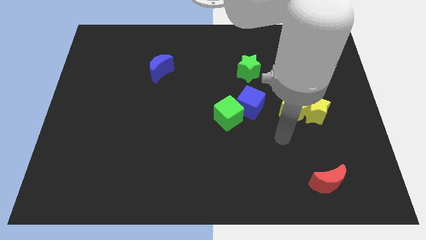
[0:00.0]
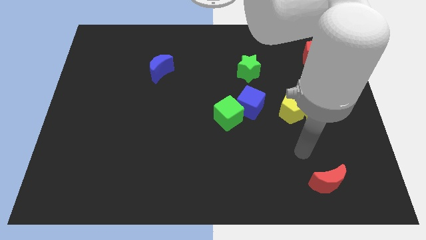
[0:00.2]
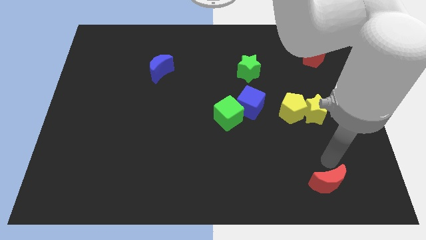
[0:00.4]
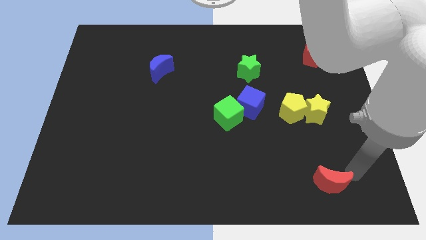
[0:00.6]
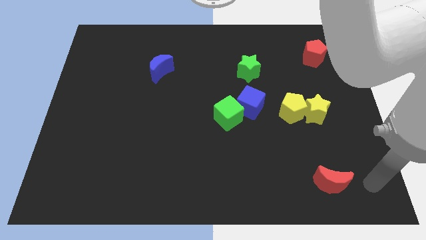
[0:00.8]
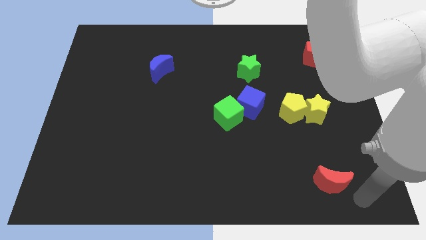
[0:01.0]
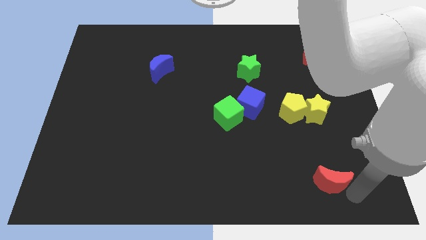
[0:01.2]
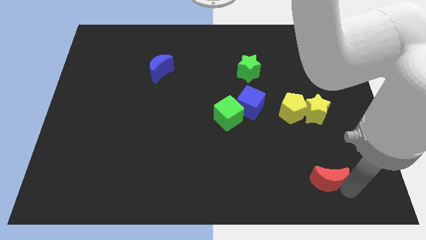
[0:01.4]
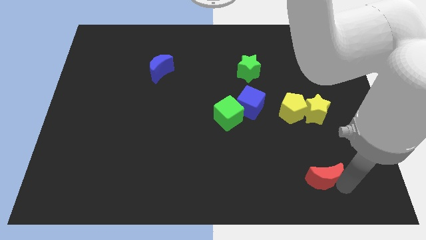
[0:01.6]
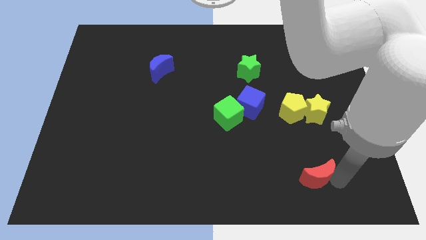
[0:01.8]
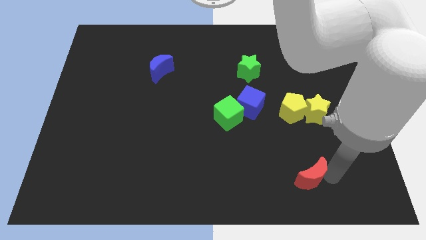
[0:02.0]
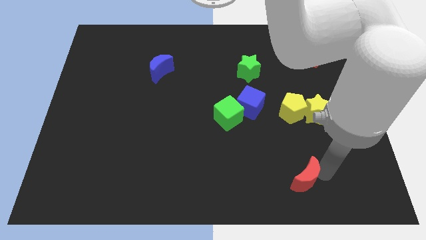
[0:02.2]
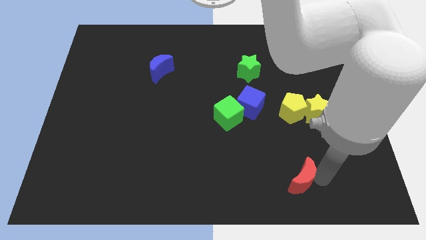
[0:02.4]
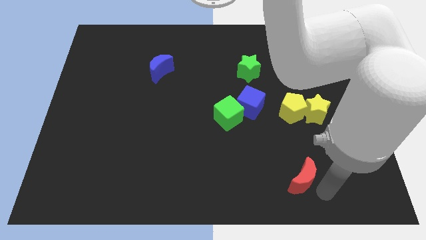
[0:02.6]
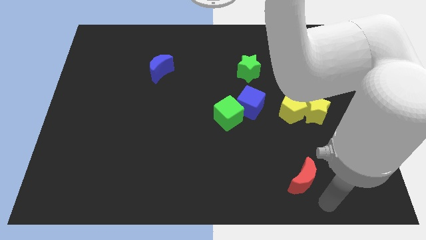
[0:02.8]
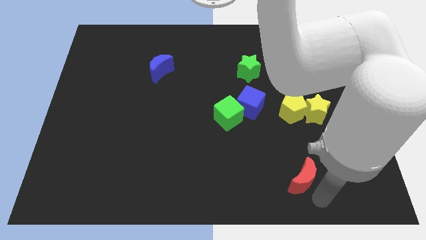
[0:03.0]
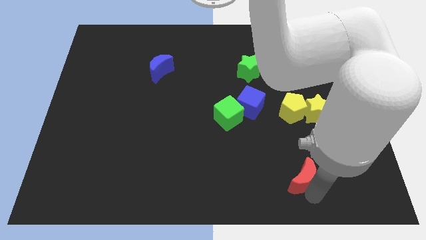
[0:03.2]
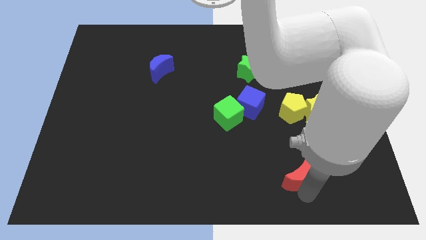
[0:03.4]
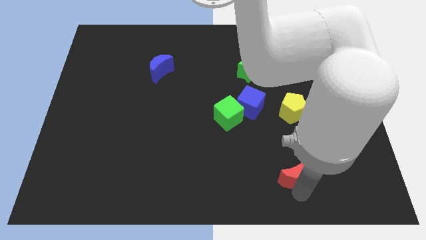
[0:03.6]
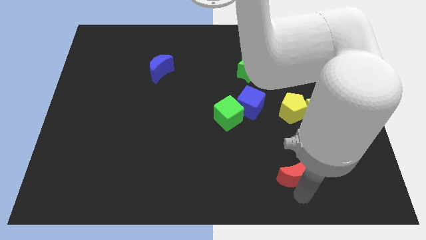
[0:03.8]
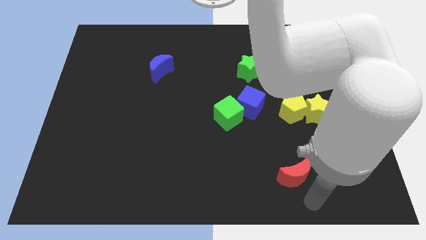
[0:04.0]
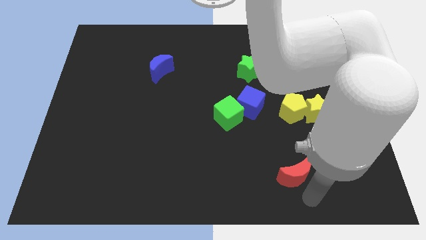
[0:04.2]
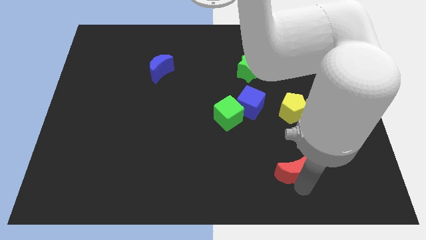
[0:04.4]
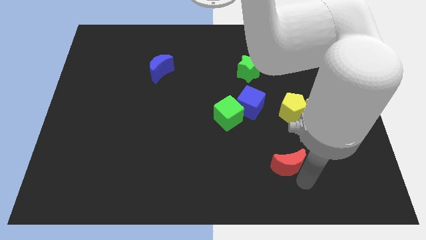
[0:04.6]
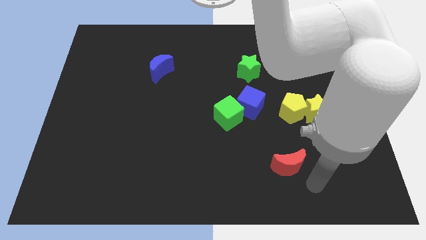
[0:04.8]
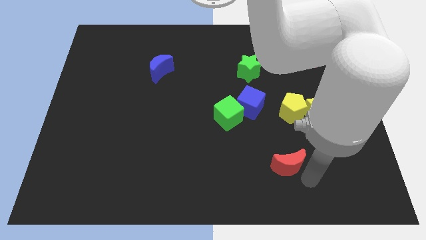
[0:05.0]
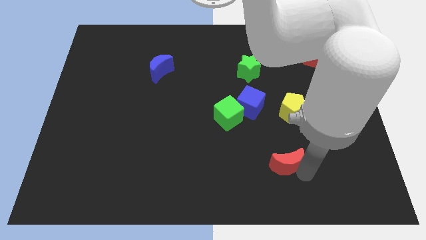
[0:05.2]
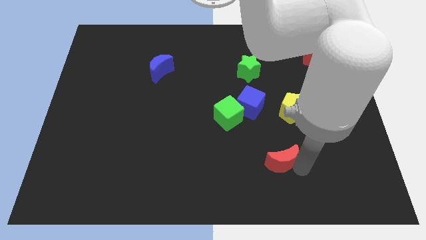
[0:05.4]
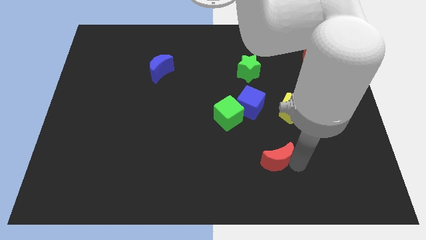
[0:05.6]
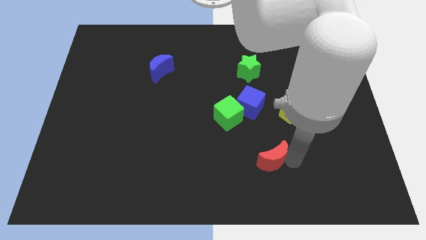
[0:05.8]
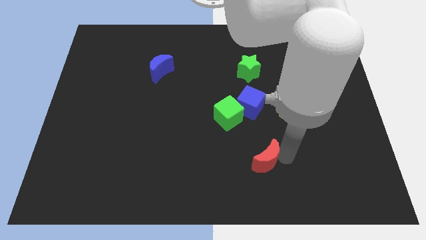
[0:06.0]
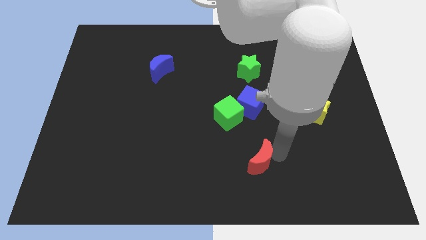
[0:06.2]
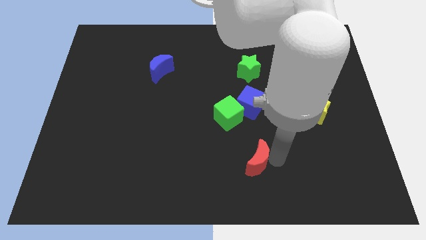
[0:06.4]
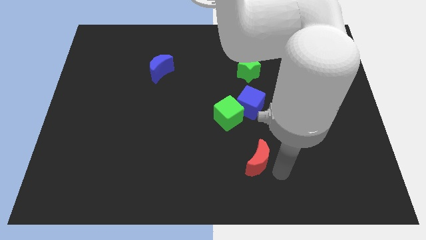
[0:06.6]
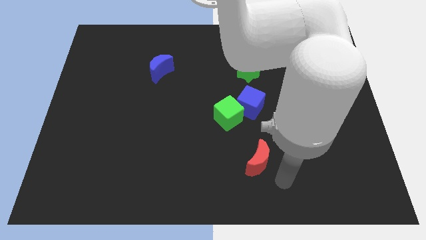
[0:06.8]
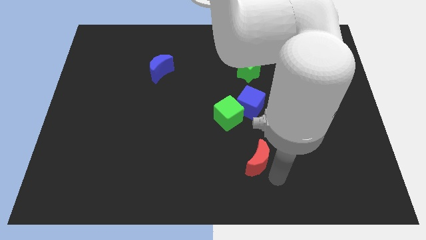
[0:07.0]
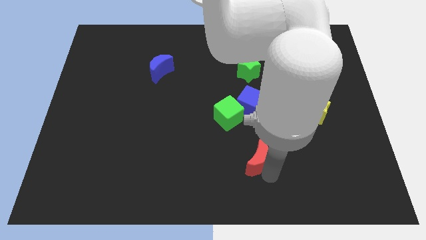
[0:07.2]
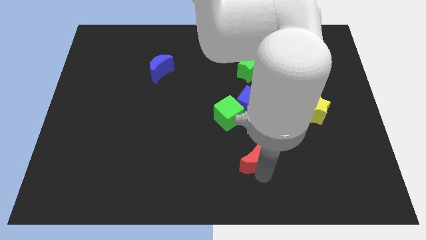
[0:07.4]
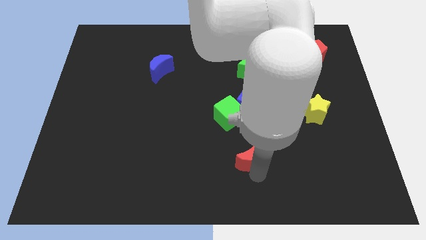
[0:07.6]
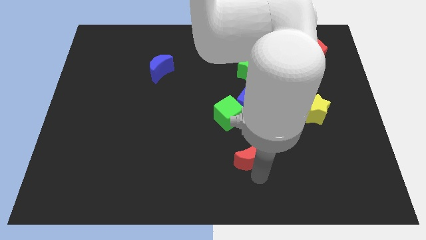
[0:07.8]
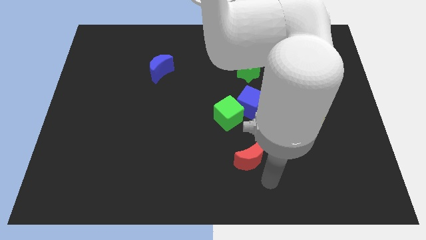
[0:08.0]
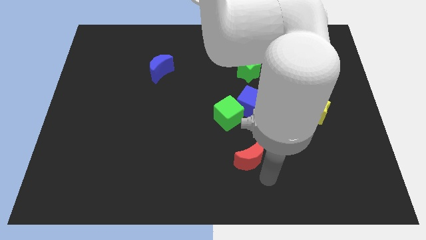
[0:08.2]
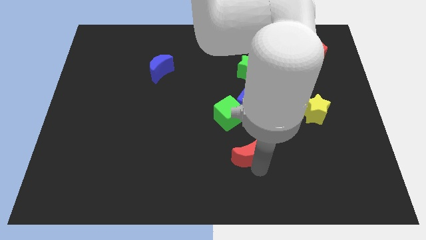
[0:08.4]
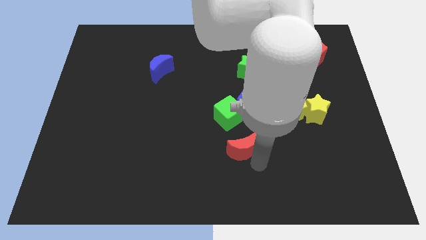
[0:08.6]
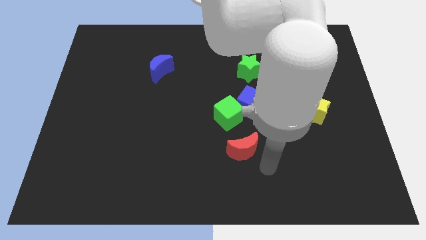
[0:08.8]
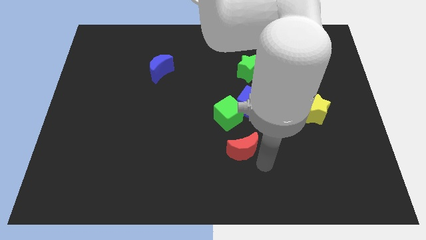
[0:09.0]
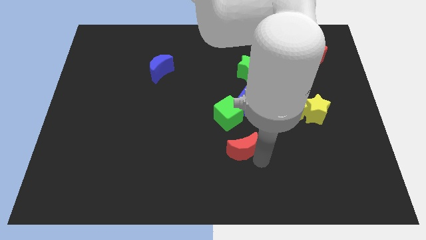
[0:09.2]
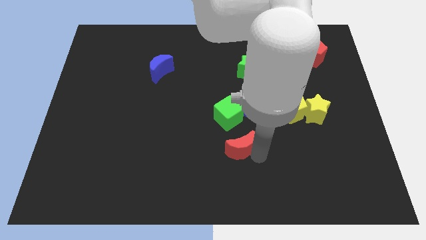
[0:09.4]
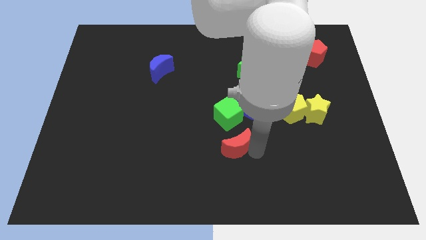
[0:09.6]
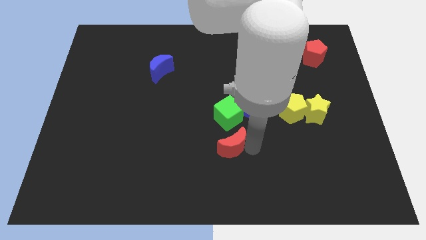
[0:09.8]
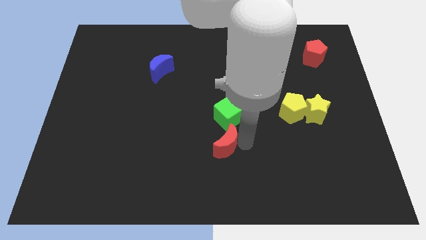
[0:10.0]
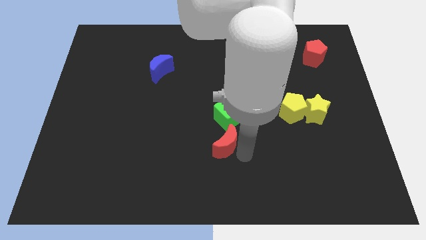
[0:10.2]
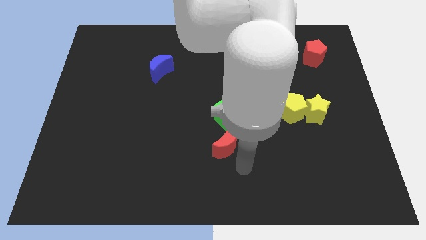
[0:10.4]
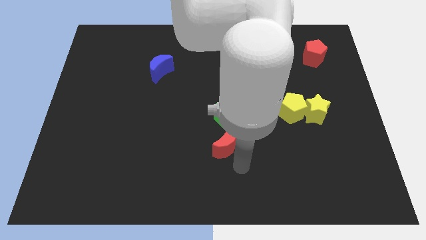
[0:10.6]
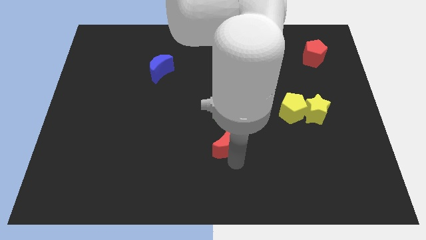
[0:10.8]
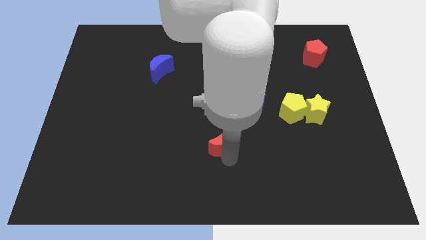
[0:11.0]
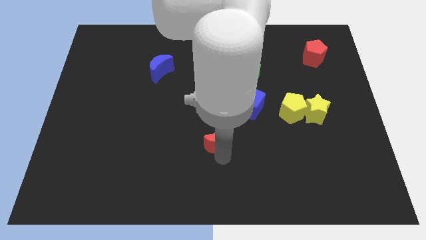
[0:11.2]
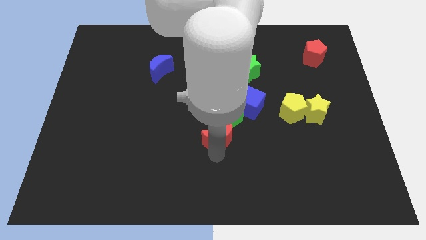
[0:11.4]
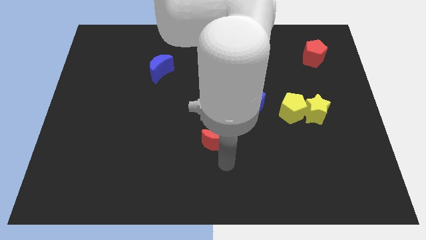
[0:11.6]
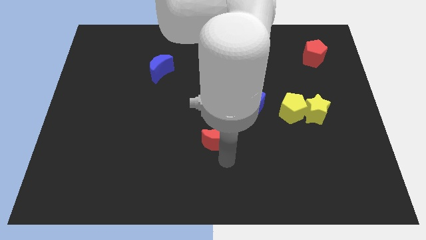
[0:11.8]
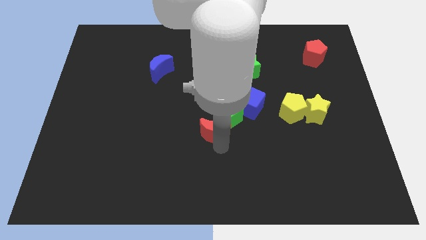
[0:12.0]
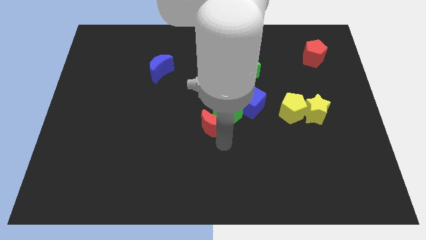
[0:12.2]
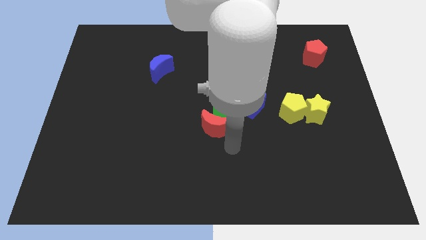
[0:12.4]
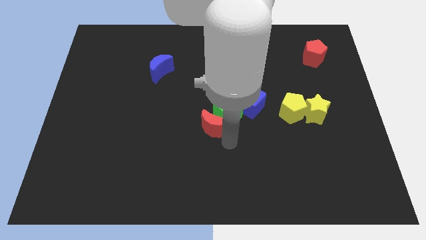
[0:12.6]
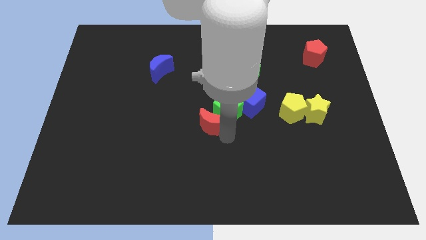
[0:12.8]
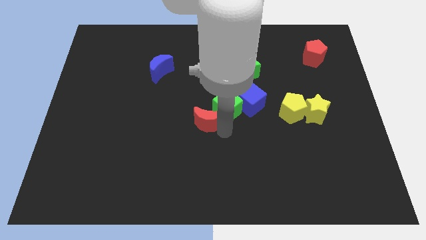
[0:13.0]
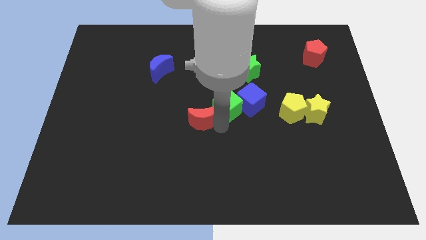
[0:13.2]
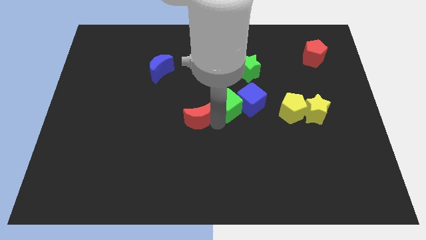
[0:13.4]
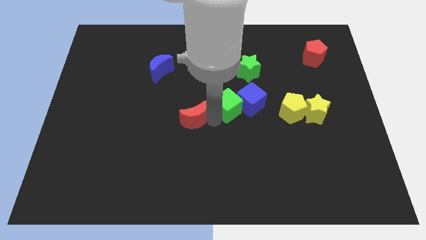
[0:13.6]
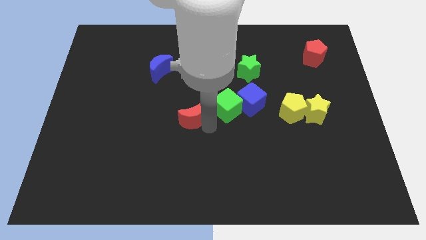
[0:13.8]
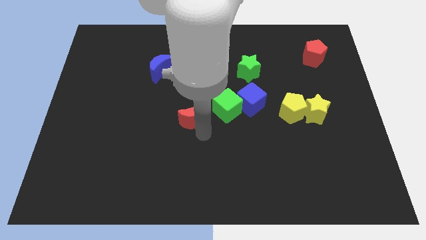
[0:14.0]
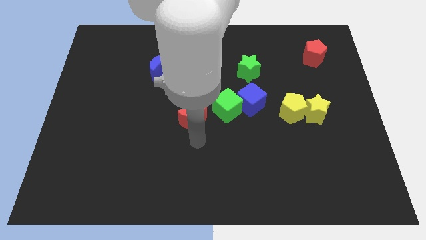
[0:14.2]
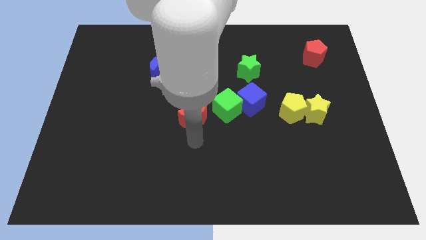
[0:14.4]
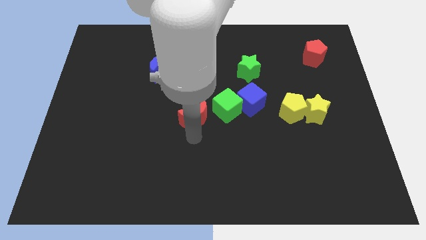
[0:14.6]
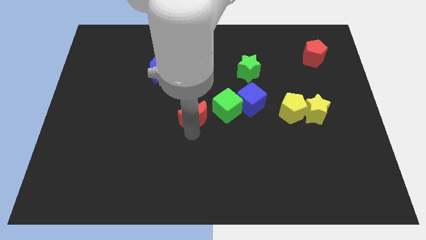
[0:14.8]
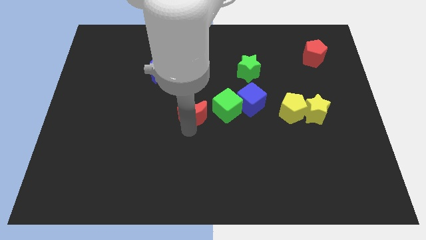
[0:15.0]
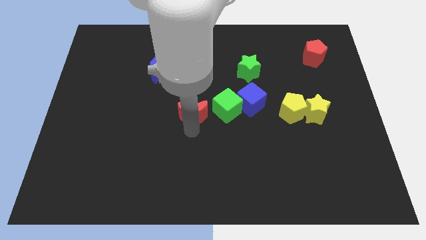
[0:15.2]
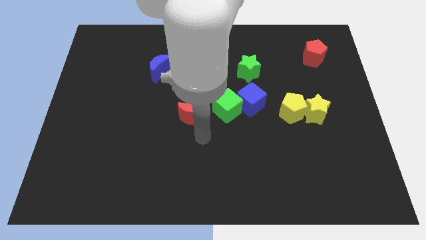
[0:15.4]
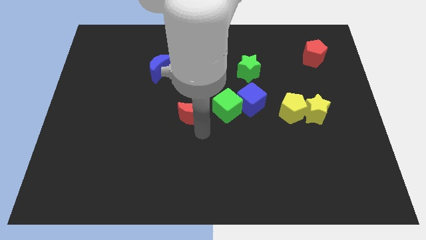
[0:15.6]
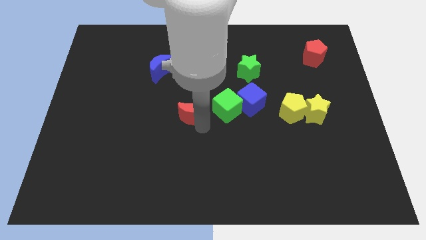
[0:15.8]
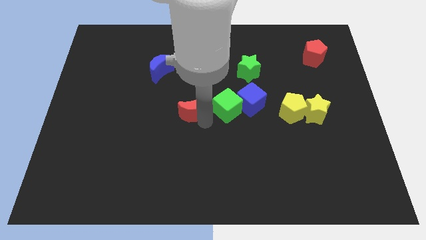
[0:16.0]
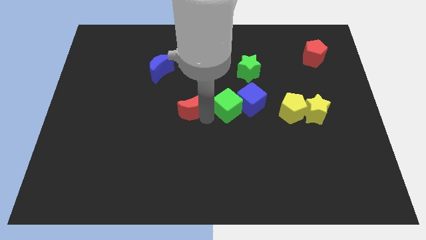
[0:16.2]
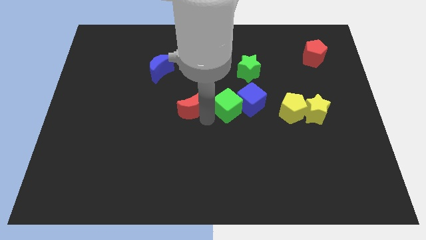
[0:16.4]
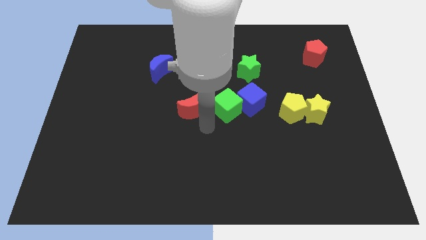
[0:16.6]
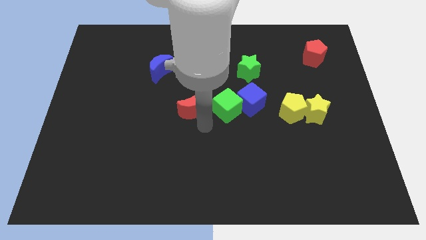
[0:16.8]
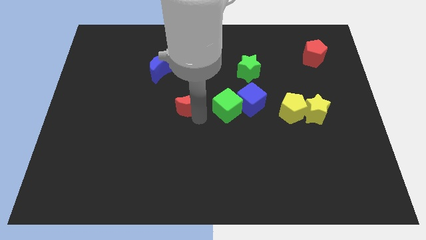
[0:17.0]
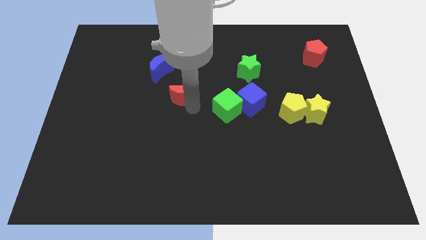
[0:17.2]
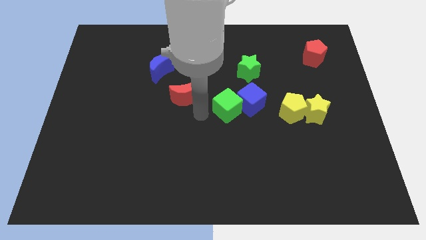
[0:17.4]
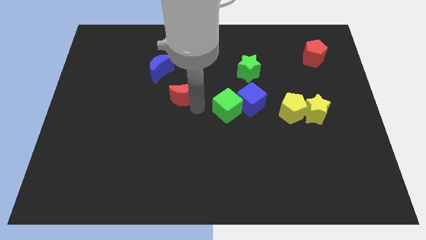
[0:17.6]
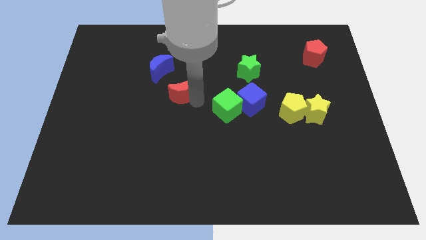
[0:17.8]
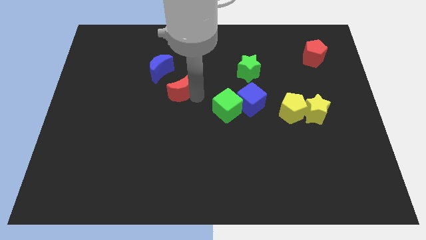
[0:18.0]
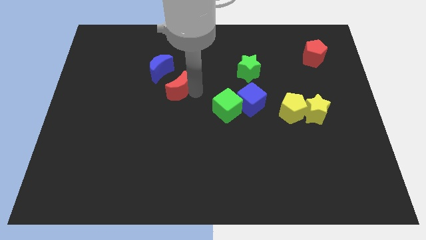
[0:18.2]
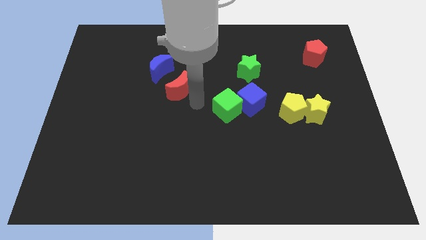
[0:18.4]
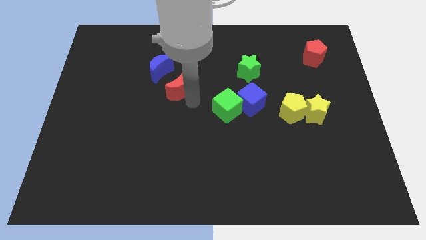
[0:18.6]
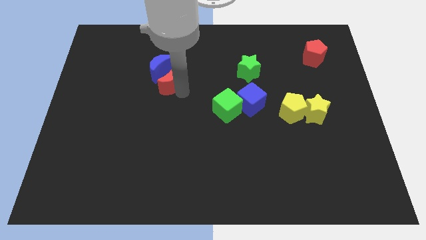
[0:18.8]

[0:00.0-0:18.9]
move the red moon towards the blue moon
